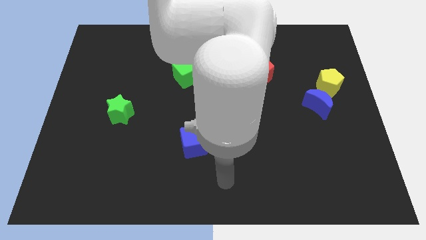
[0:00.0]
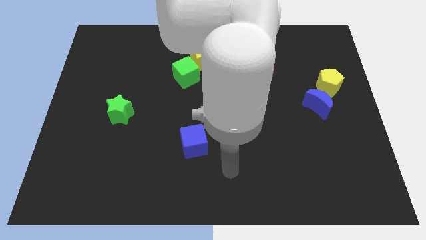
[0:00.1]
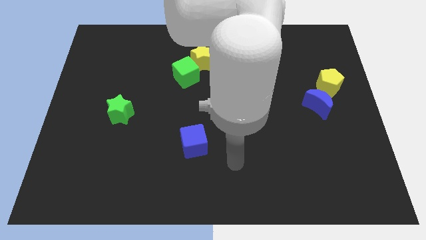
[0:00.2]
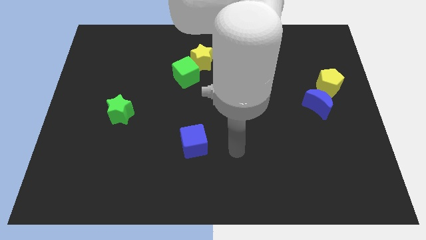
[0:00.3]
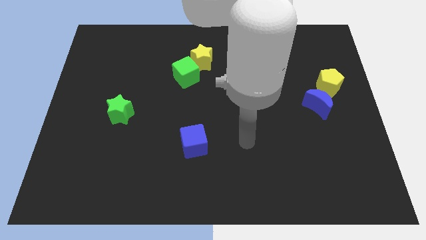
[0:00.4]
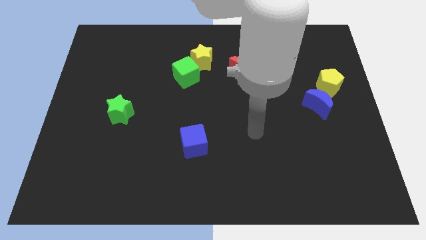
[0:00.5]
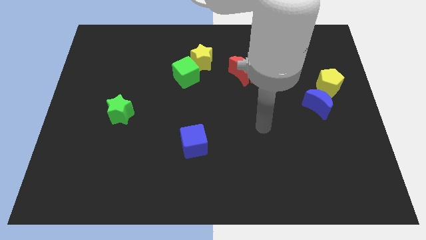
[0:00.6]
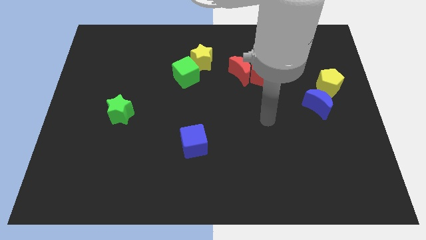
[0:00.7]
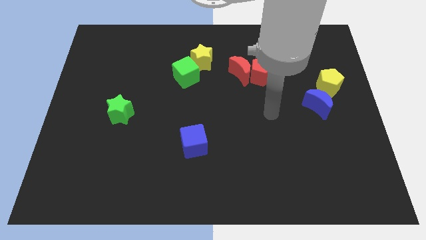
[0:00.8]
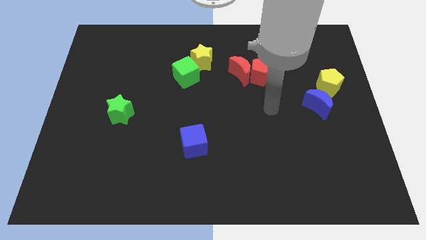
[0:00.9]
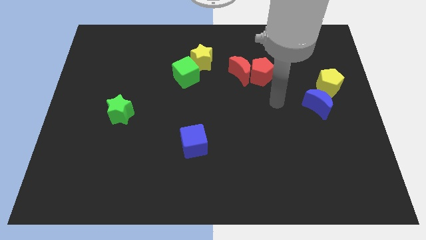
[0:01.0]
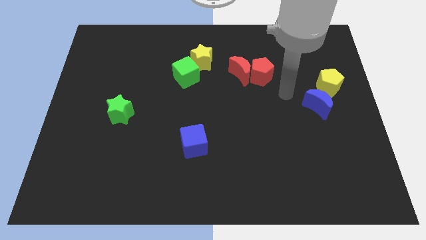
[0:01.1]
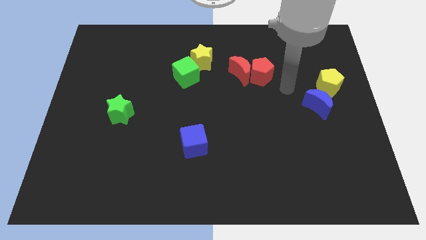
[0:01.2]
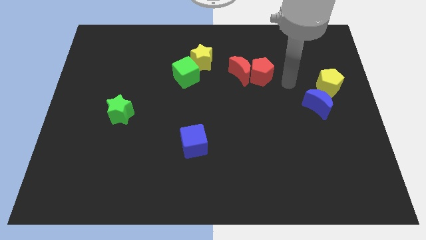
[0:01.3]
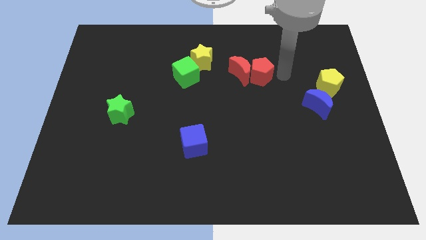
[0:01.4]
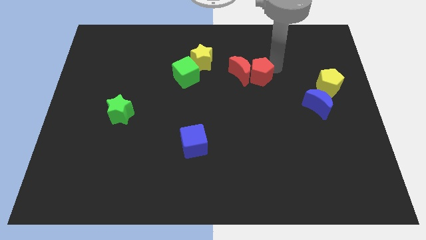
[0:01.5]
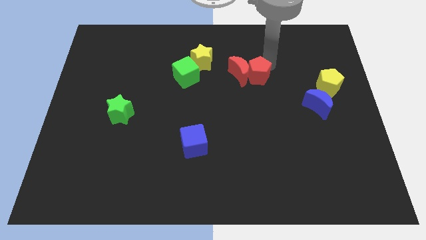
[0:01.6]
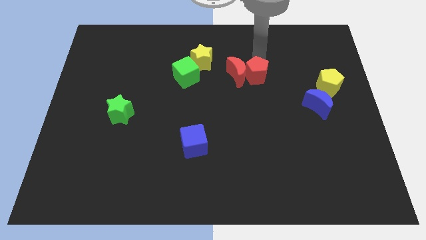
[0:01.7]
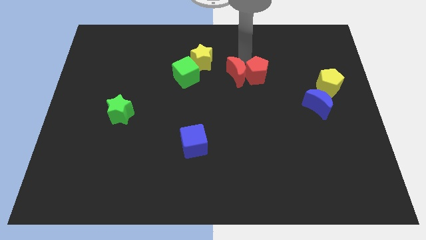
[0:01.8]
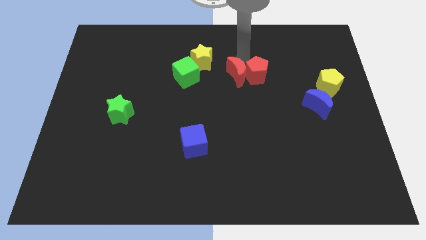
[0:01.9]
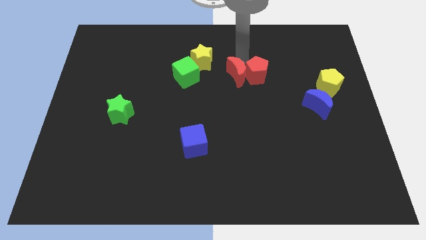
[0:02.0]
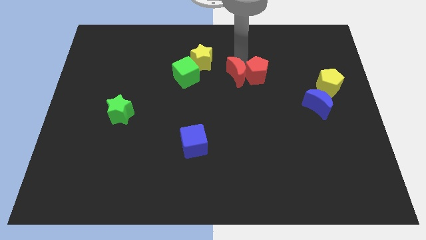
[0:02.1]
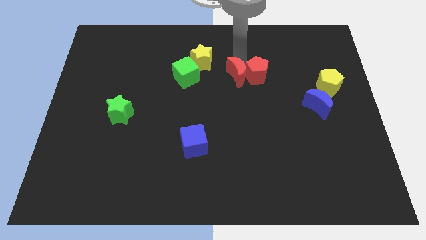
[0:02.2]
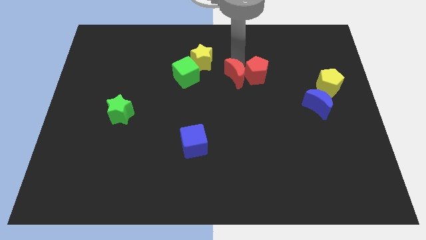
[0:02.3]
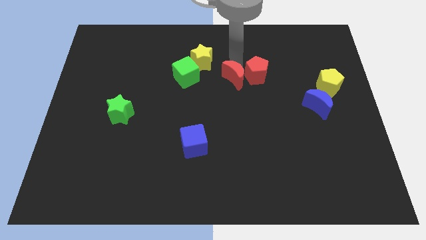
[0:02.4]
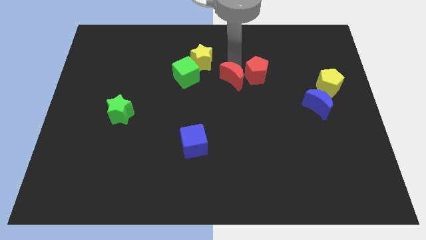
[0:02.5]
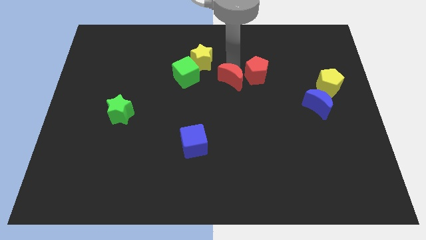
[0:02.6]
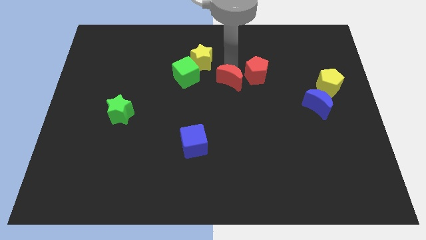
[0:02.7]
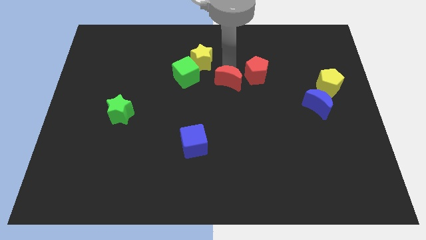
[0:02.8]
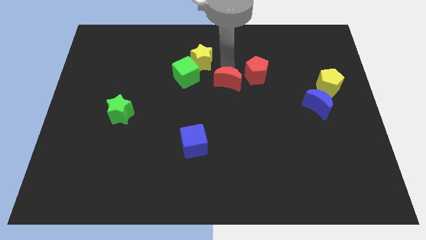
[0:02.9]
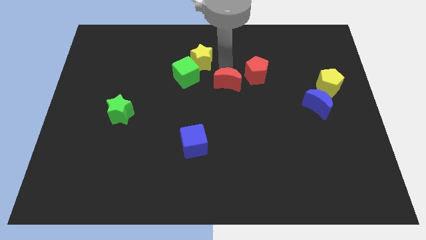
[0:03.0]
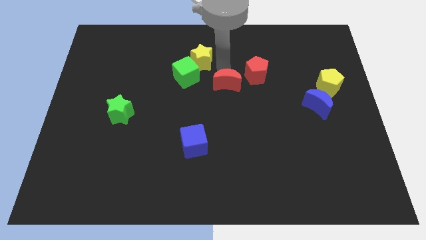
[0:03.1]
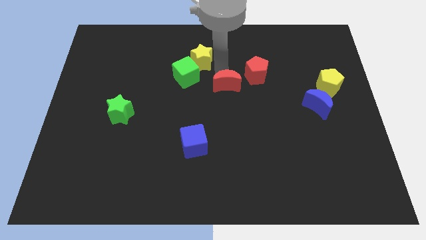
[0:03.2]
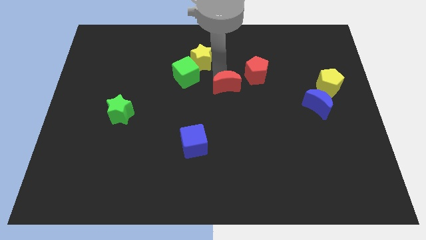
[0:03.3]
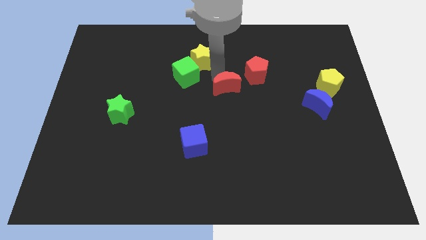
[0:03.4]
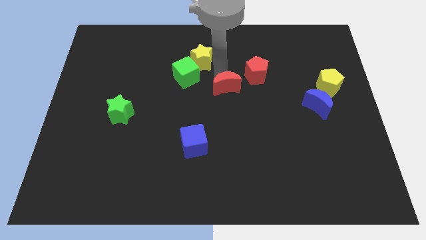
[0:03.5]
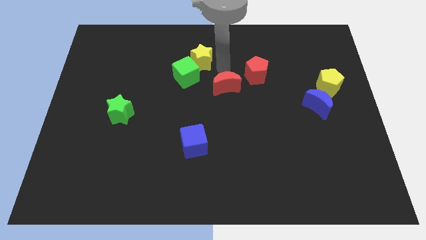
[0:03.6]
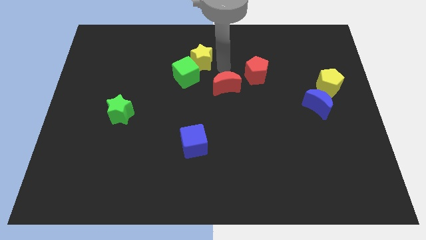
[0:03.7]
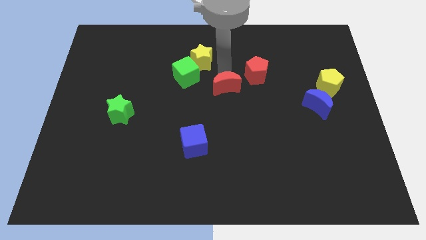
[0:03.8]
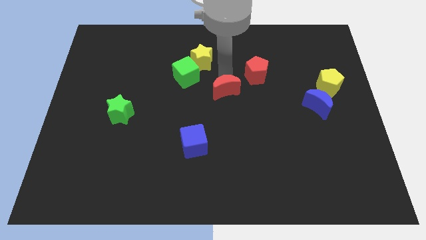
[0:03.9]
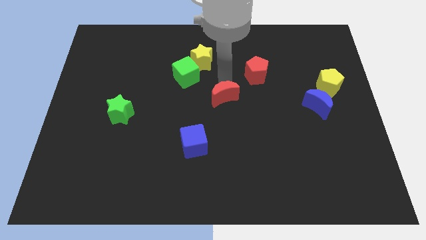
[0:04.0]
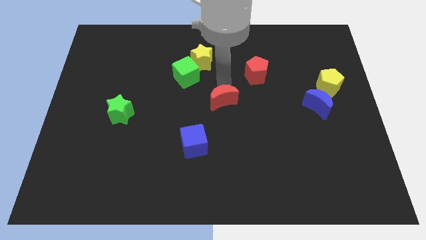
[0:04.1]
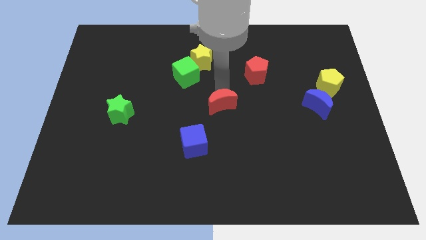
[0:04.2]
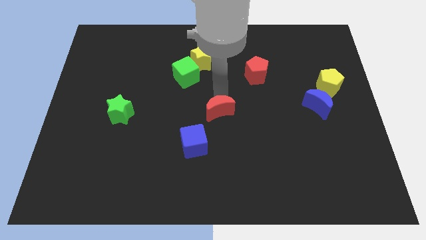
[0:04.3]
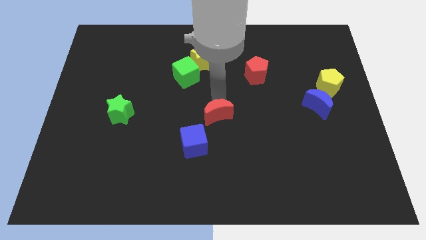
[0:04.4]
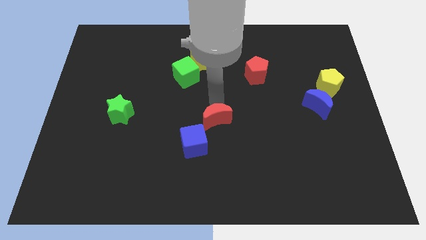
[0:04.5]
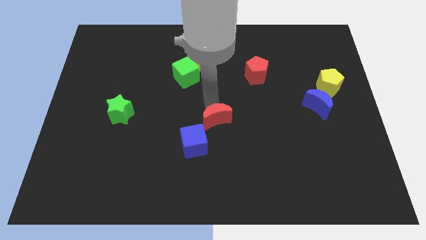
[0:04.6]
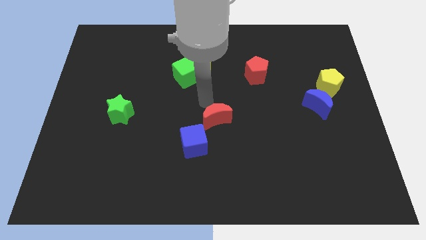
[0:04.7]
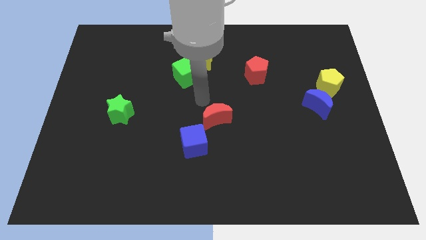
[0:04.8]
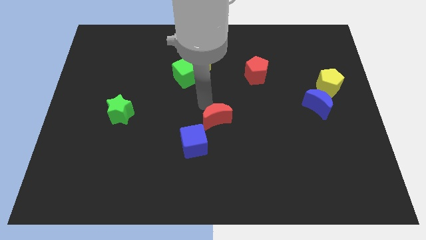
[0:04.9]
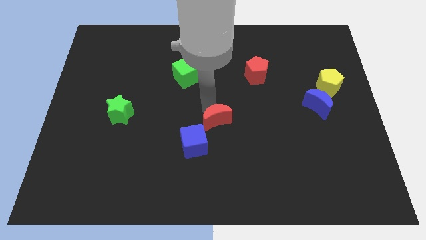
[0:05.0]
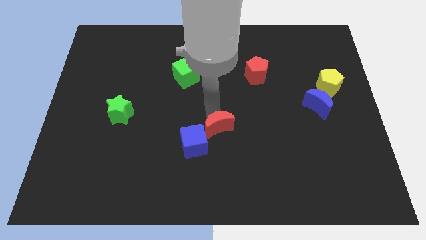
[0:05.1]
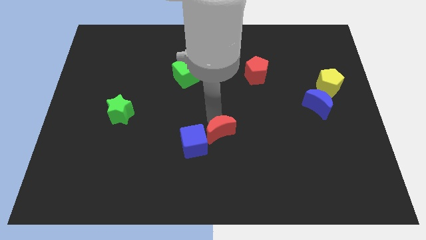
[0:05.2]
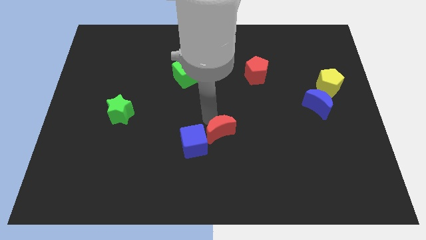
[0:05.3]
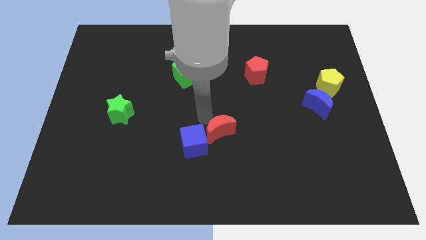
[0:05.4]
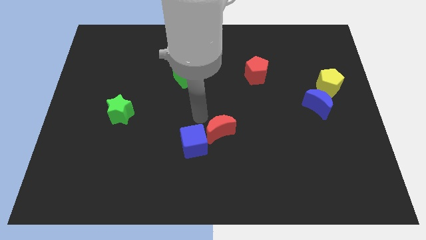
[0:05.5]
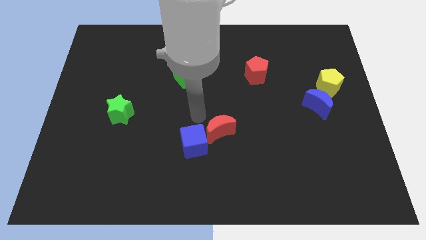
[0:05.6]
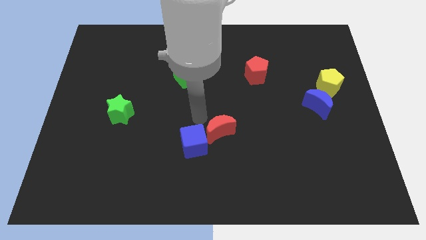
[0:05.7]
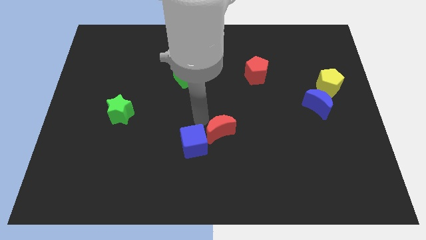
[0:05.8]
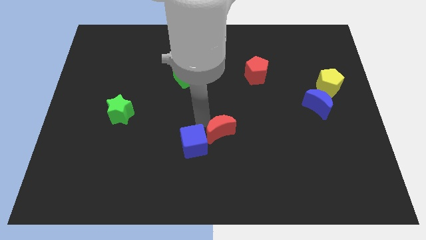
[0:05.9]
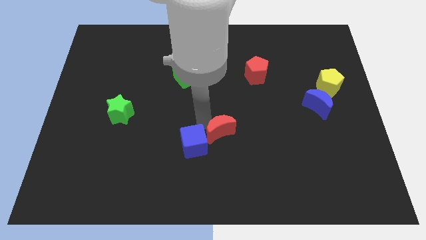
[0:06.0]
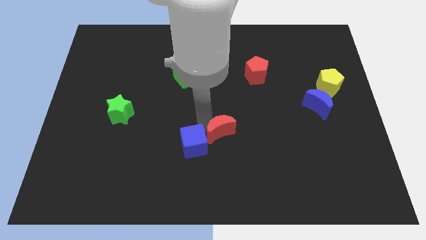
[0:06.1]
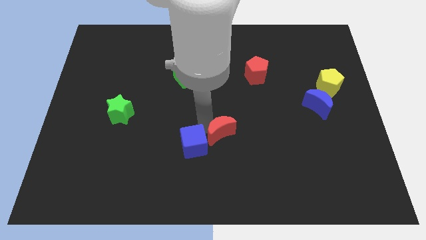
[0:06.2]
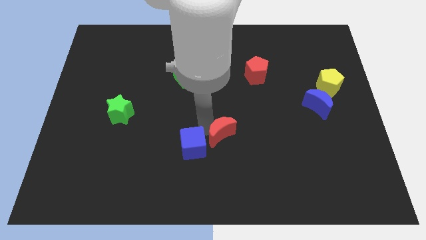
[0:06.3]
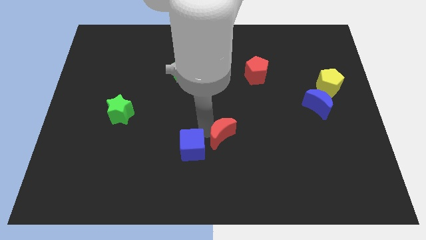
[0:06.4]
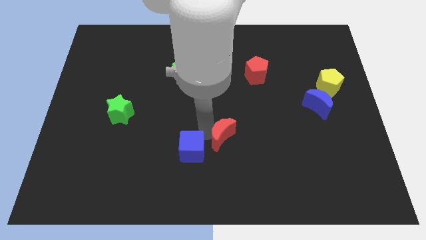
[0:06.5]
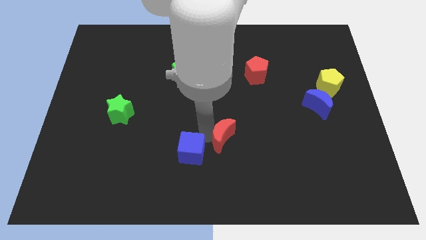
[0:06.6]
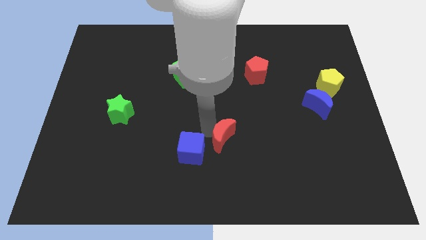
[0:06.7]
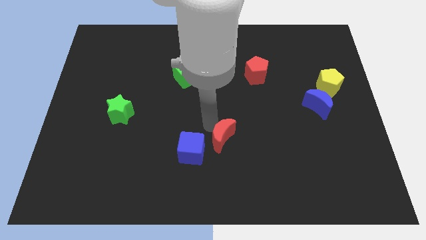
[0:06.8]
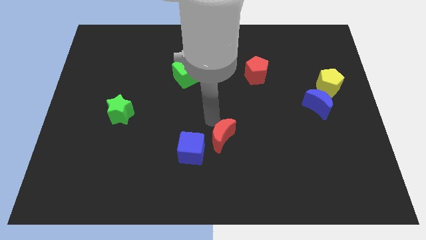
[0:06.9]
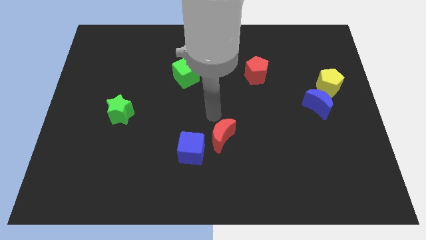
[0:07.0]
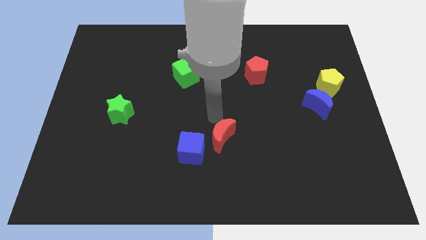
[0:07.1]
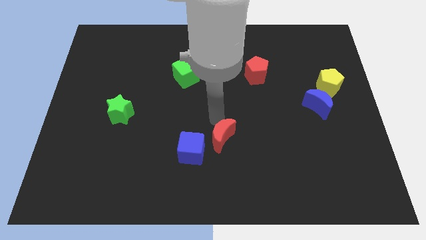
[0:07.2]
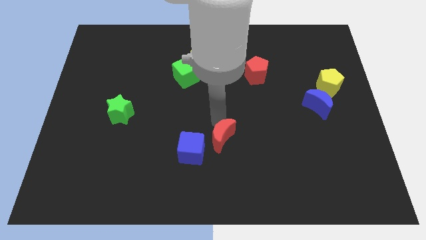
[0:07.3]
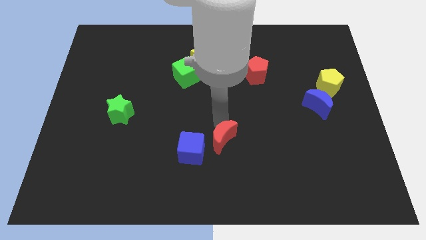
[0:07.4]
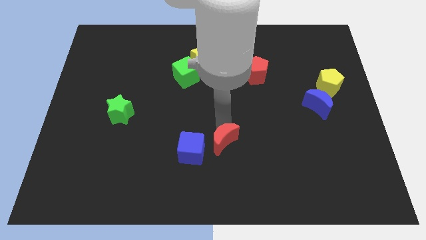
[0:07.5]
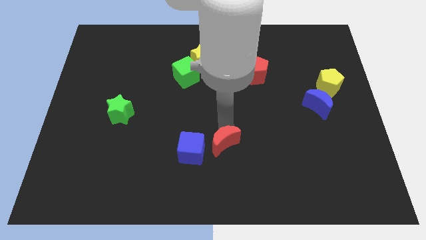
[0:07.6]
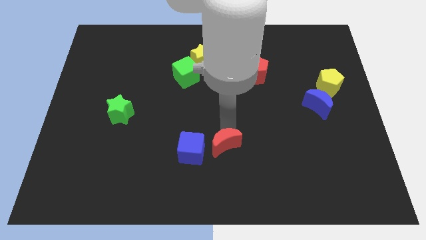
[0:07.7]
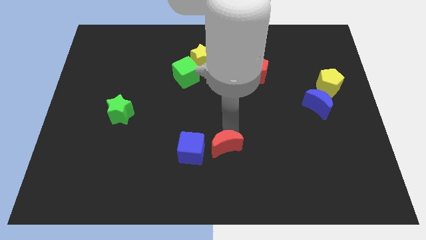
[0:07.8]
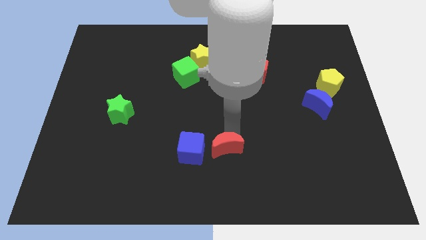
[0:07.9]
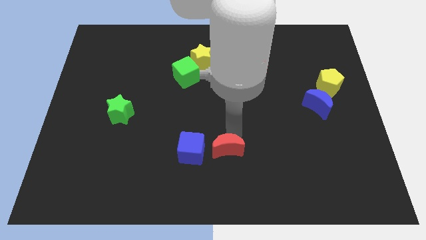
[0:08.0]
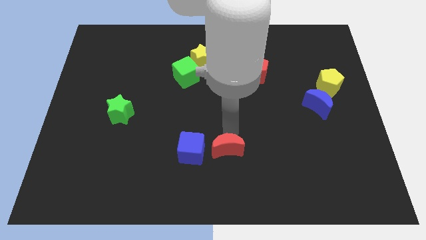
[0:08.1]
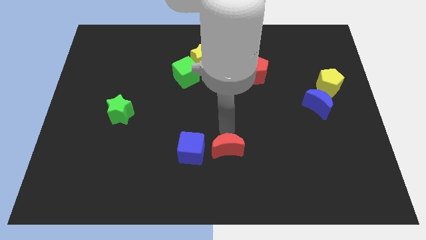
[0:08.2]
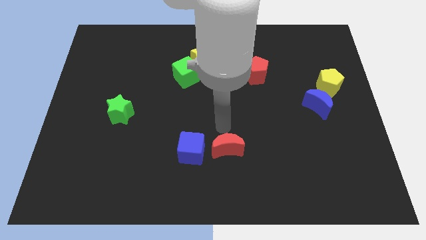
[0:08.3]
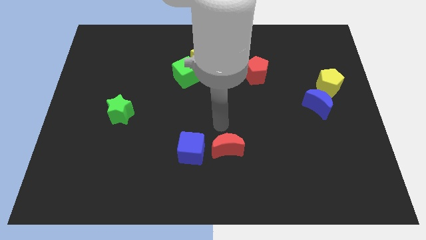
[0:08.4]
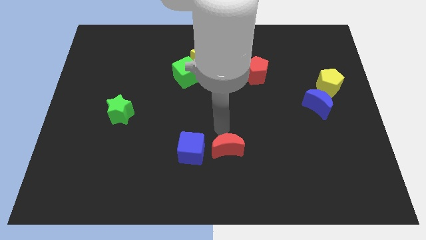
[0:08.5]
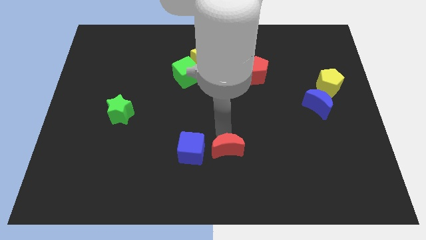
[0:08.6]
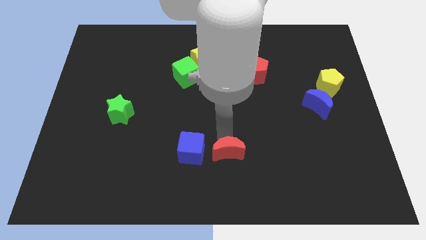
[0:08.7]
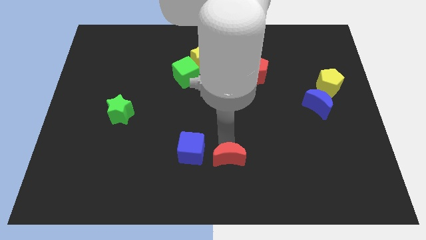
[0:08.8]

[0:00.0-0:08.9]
move the red moon to the bottom side
